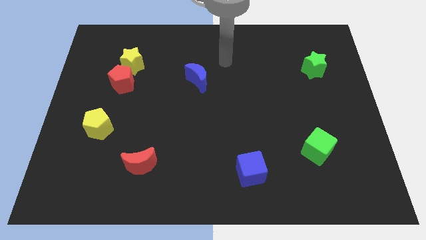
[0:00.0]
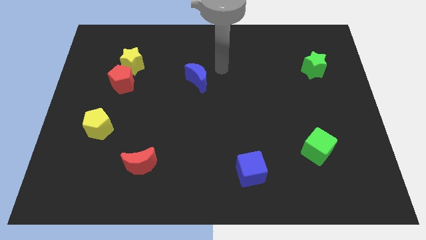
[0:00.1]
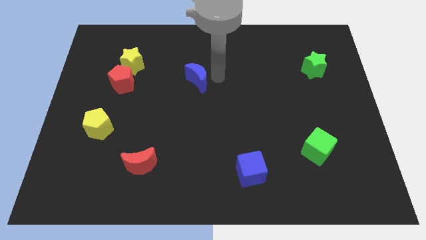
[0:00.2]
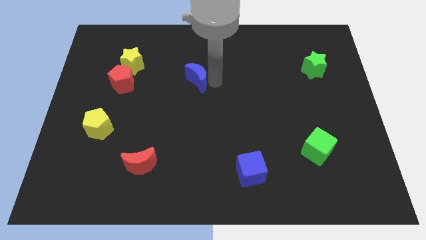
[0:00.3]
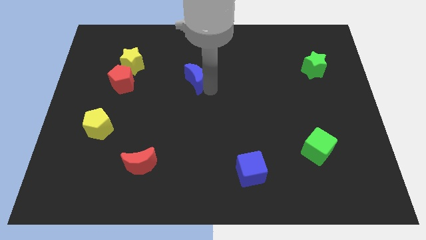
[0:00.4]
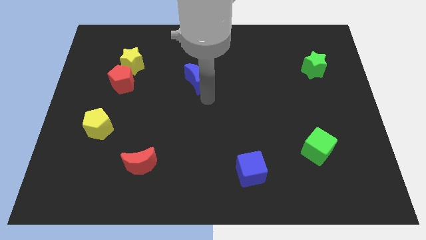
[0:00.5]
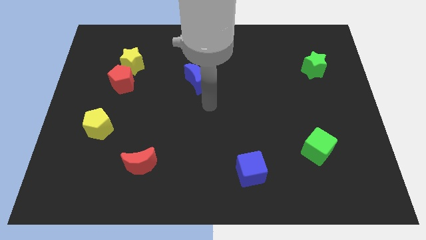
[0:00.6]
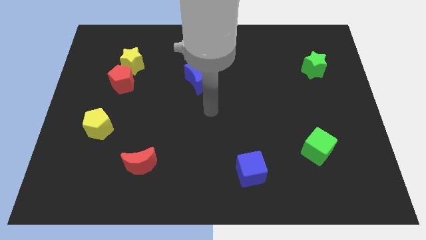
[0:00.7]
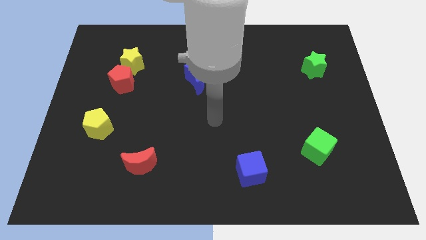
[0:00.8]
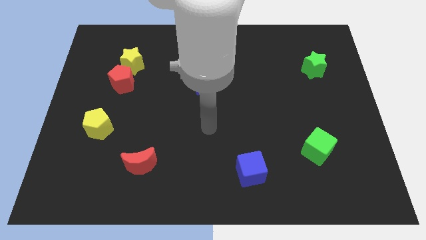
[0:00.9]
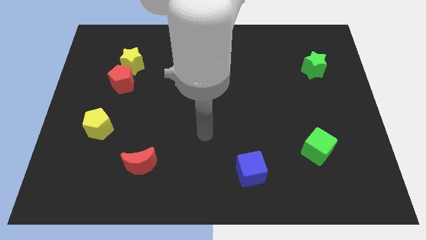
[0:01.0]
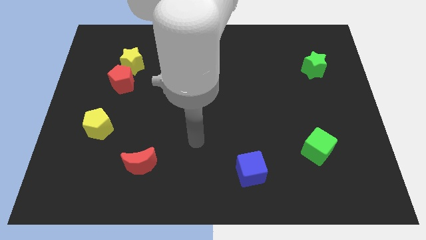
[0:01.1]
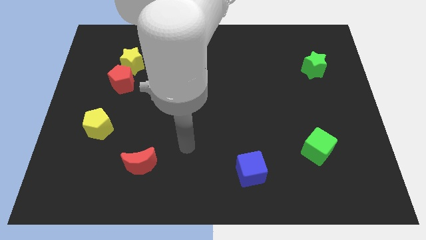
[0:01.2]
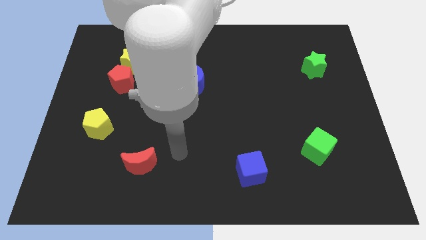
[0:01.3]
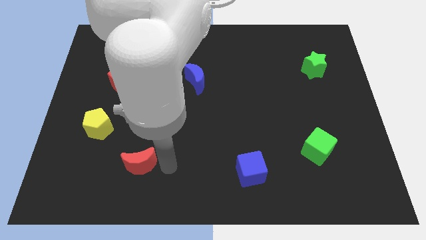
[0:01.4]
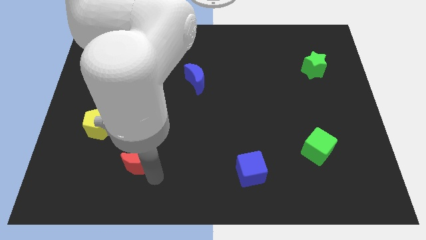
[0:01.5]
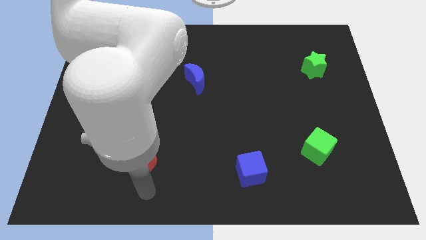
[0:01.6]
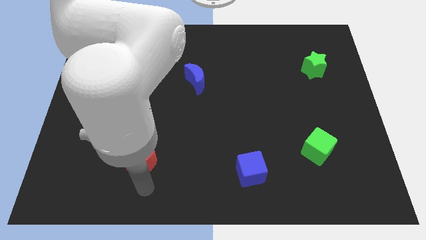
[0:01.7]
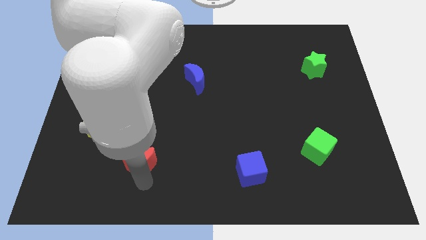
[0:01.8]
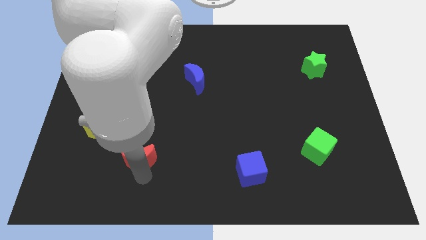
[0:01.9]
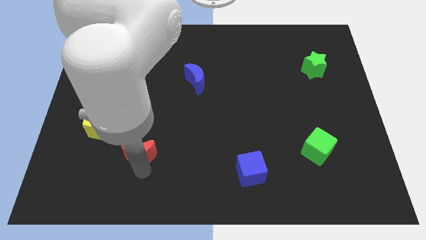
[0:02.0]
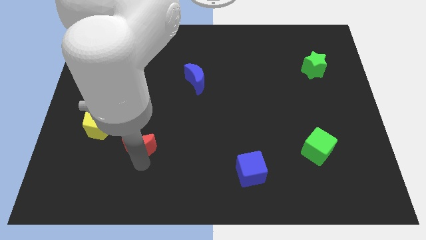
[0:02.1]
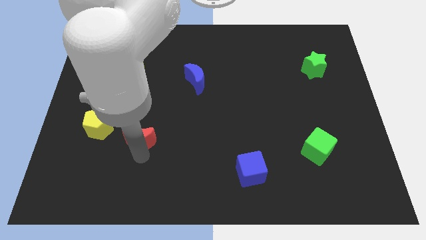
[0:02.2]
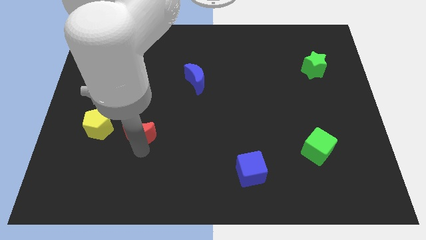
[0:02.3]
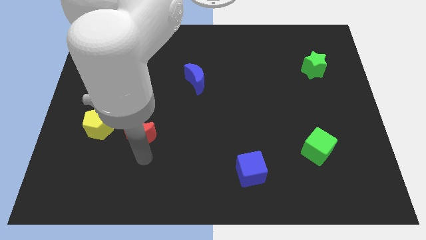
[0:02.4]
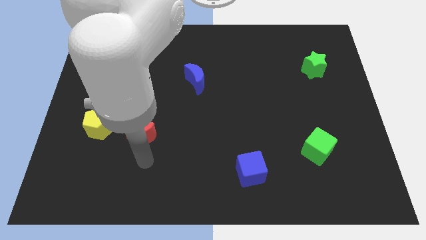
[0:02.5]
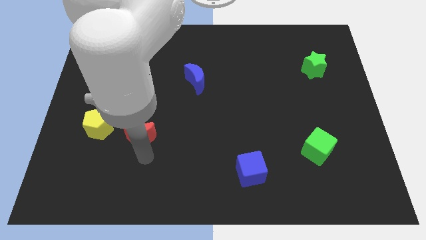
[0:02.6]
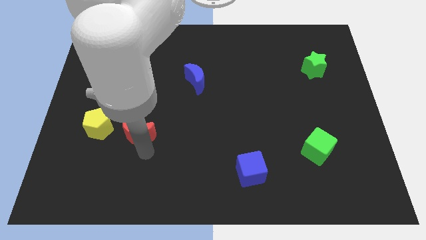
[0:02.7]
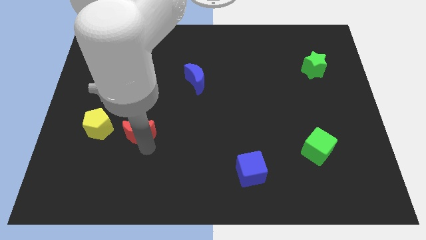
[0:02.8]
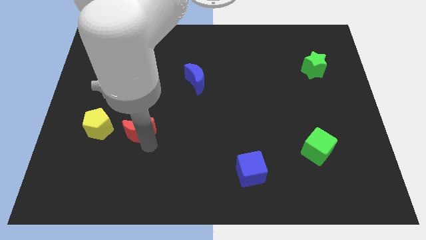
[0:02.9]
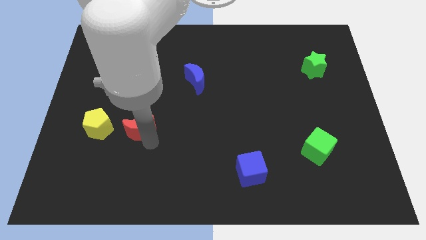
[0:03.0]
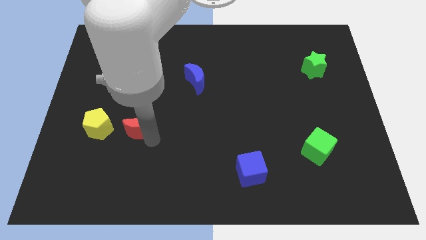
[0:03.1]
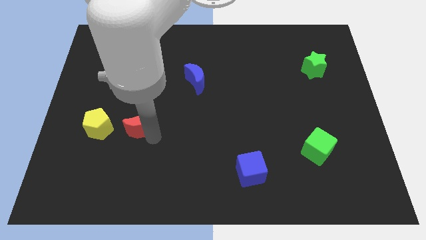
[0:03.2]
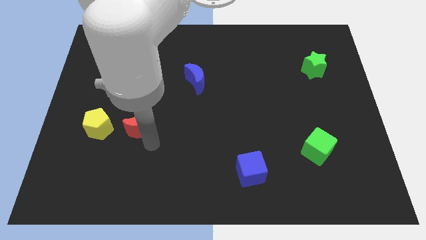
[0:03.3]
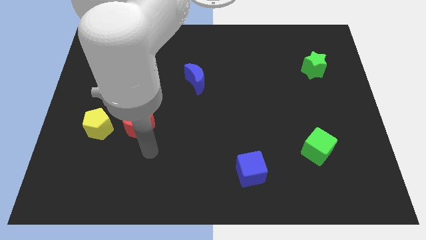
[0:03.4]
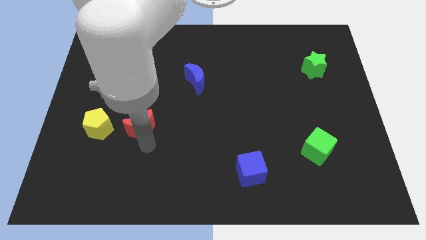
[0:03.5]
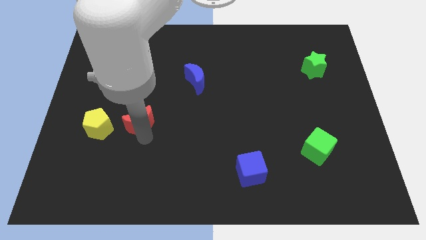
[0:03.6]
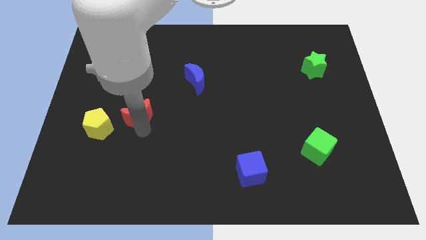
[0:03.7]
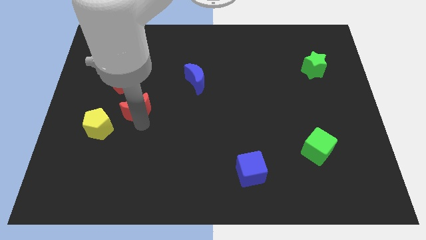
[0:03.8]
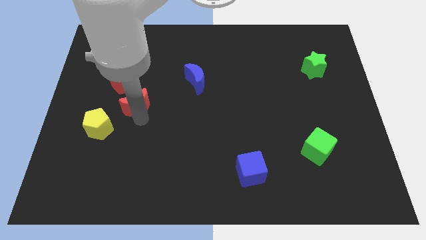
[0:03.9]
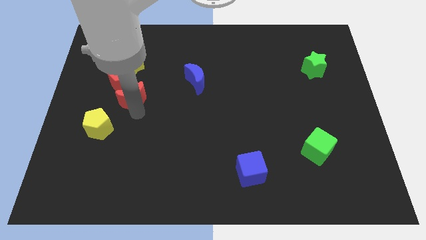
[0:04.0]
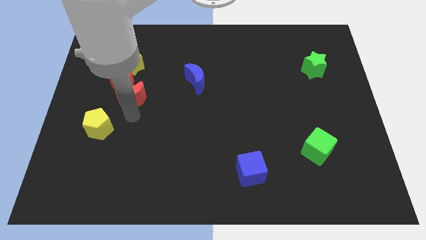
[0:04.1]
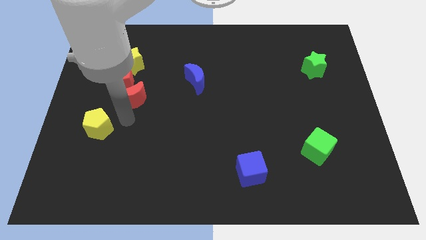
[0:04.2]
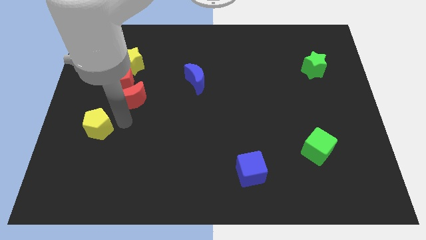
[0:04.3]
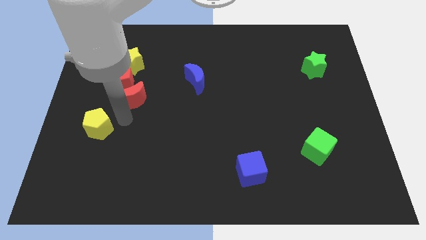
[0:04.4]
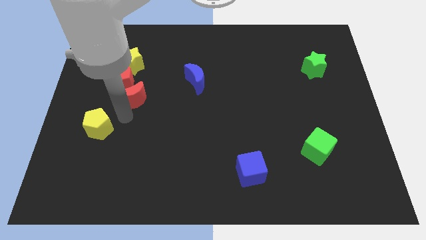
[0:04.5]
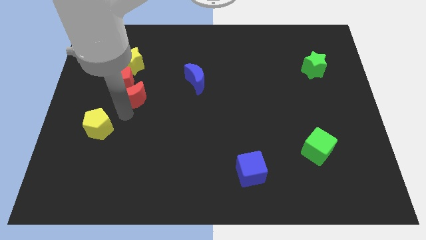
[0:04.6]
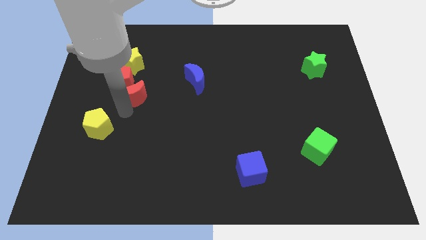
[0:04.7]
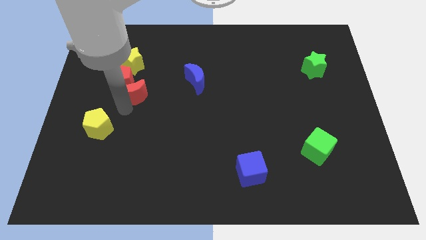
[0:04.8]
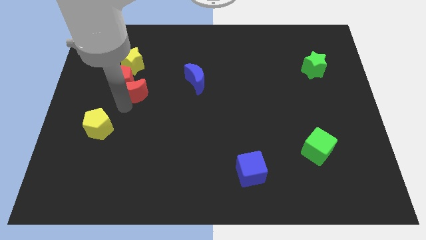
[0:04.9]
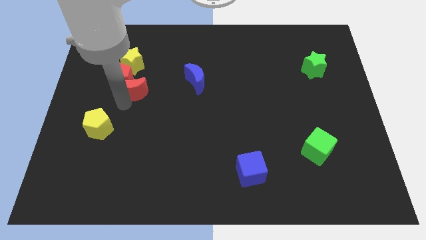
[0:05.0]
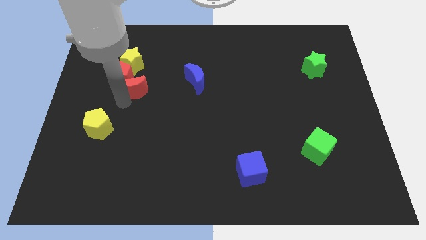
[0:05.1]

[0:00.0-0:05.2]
slide the red moon up

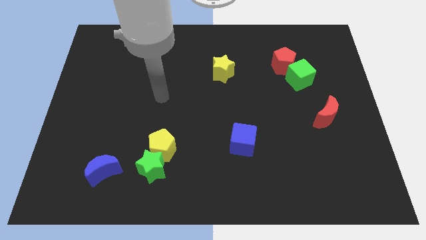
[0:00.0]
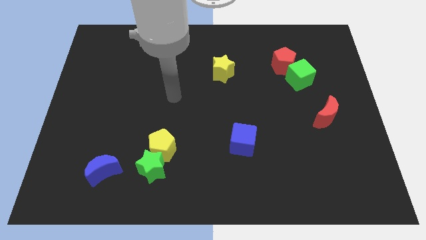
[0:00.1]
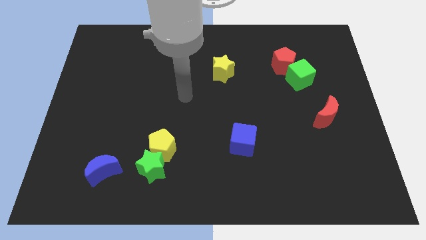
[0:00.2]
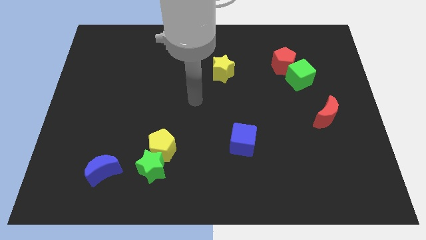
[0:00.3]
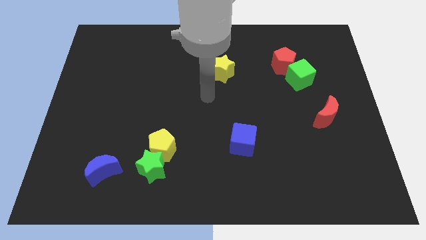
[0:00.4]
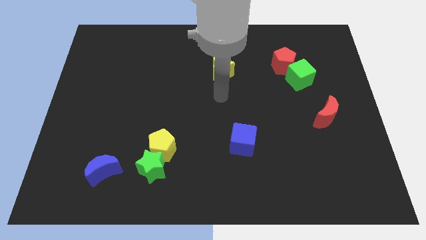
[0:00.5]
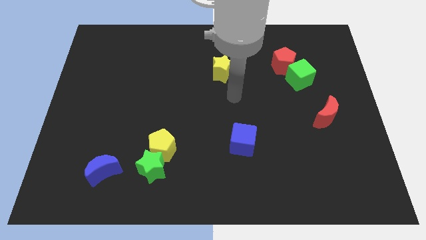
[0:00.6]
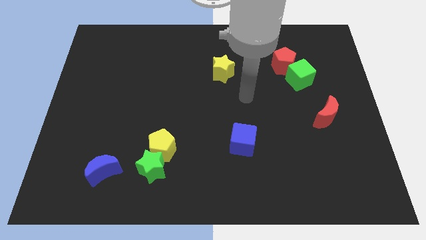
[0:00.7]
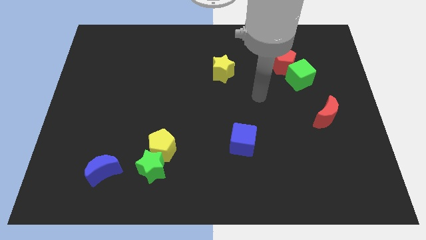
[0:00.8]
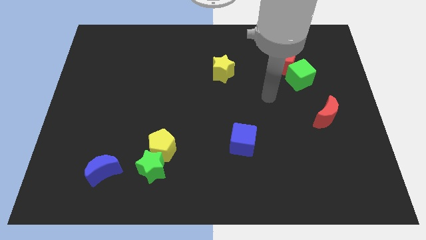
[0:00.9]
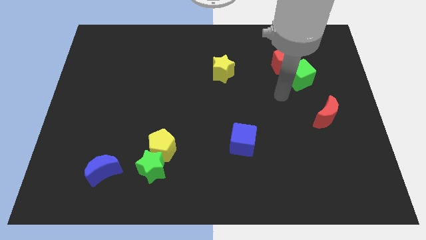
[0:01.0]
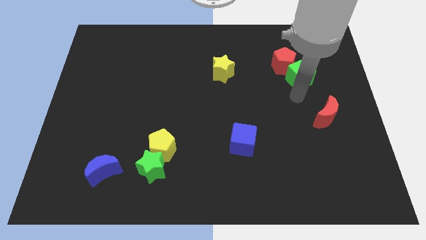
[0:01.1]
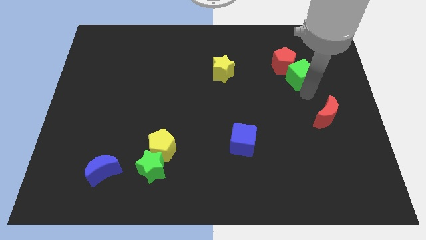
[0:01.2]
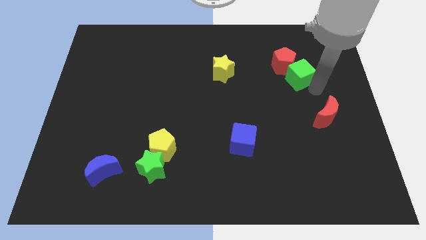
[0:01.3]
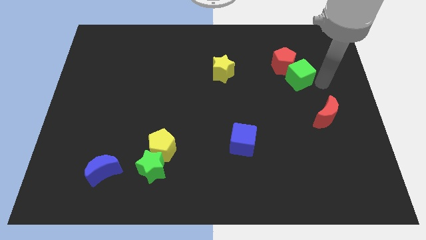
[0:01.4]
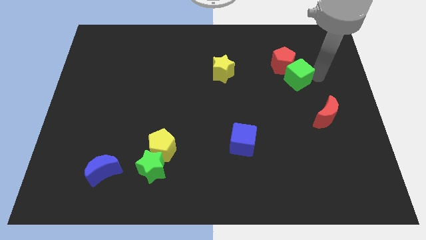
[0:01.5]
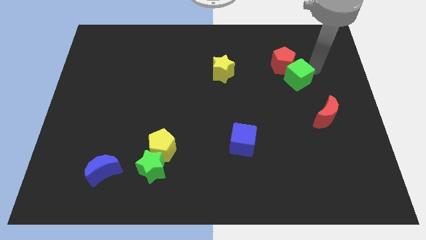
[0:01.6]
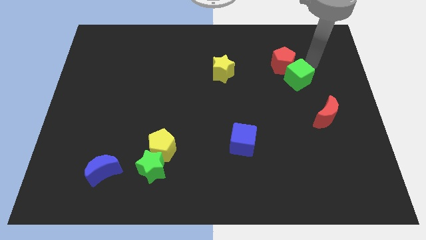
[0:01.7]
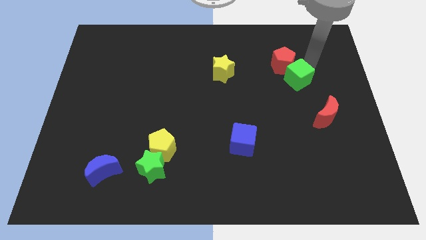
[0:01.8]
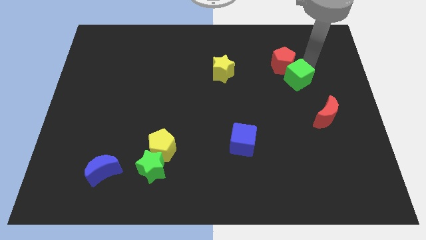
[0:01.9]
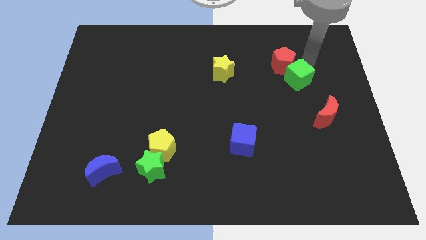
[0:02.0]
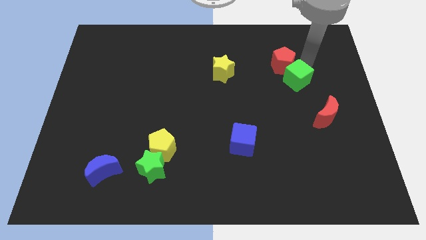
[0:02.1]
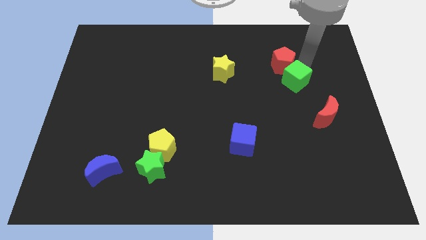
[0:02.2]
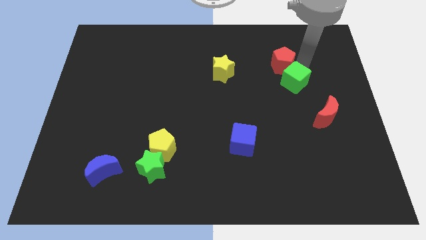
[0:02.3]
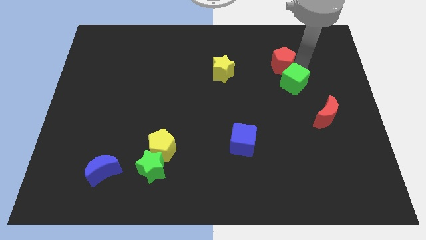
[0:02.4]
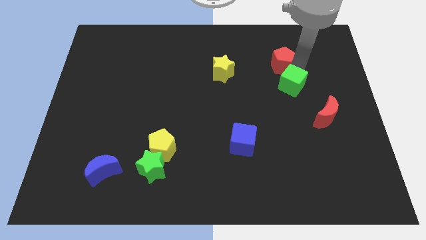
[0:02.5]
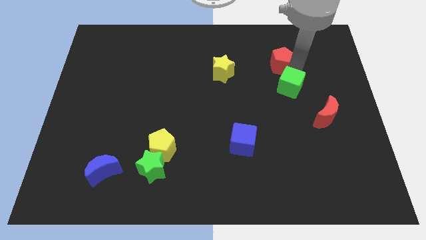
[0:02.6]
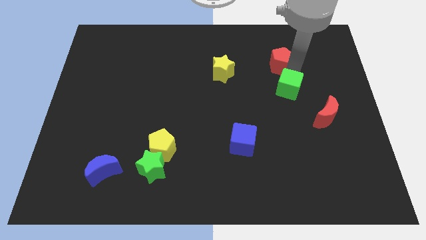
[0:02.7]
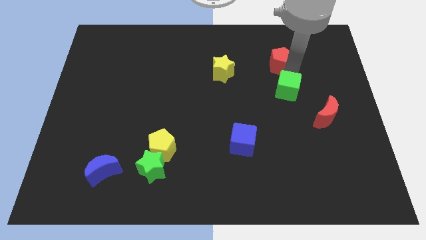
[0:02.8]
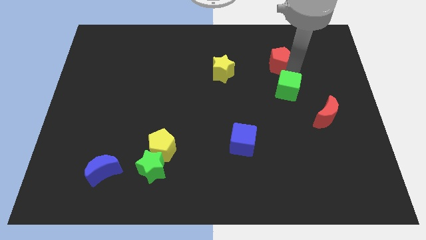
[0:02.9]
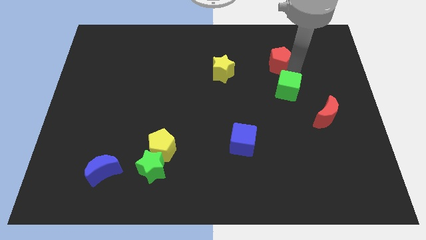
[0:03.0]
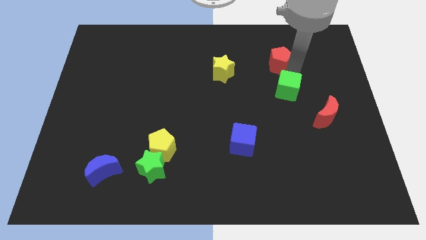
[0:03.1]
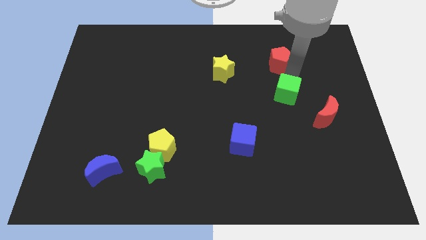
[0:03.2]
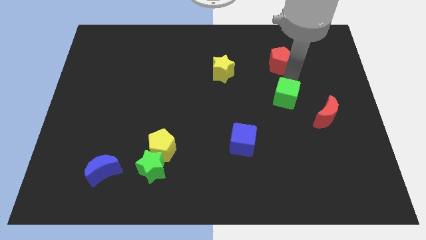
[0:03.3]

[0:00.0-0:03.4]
slightly move the green cube down and then left
